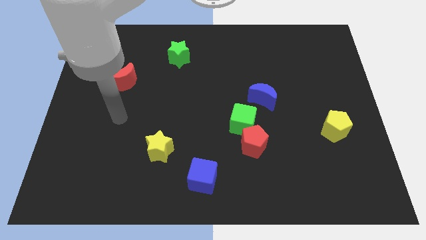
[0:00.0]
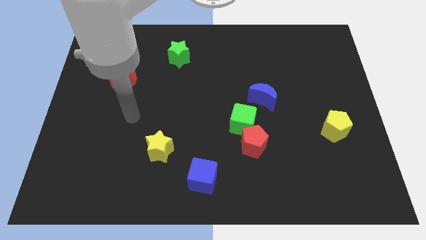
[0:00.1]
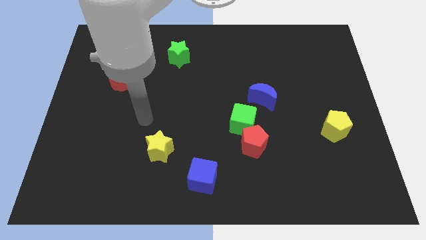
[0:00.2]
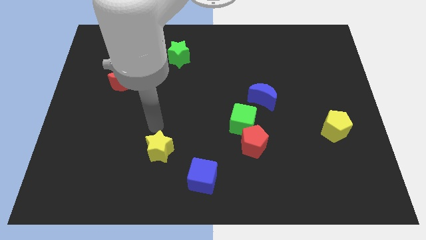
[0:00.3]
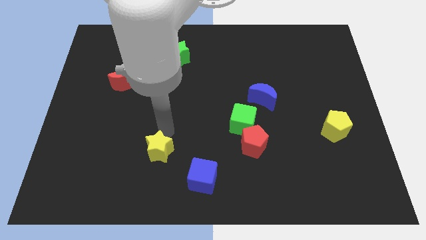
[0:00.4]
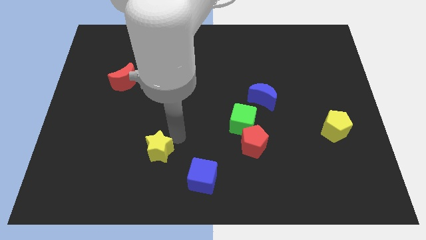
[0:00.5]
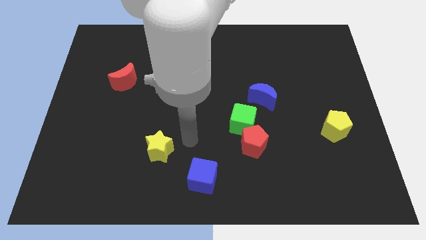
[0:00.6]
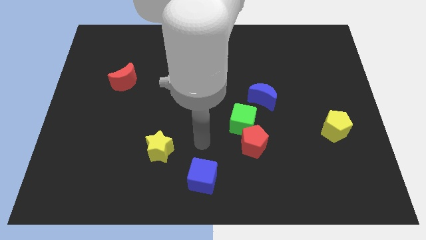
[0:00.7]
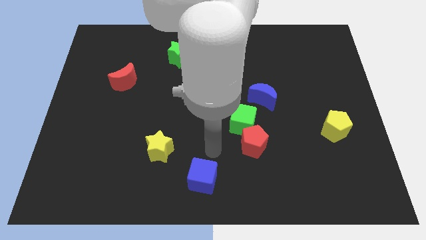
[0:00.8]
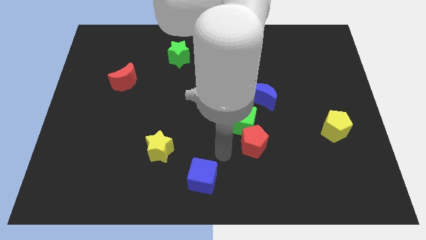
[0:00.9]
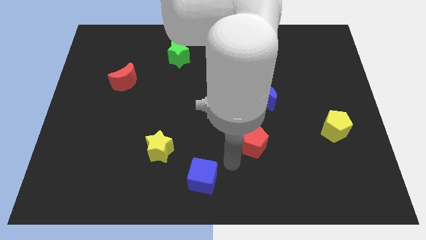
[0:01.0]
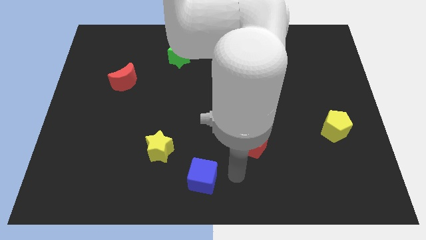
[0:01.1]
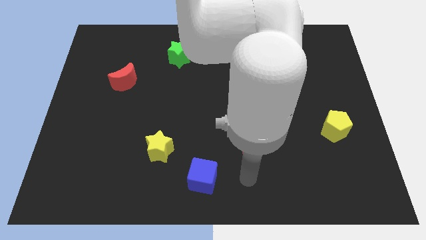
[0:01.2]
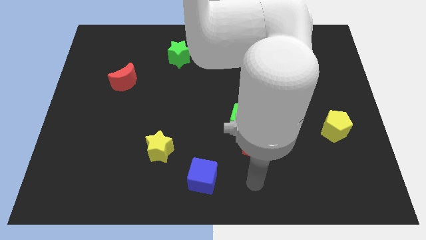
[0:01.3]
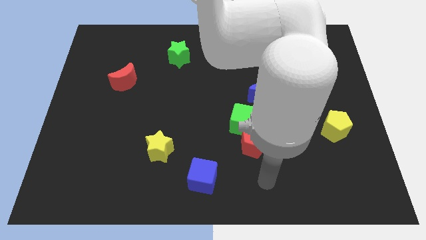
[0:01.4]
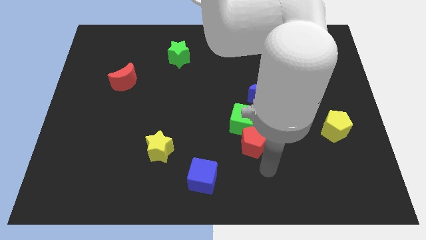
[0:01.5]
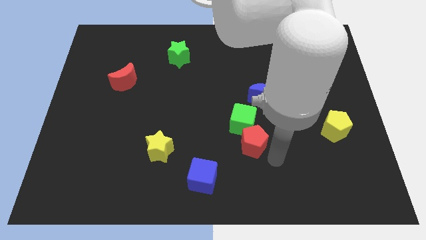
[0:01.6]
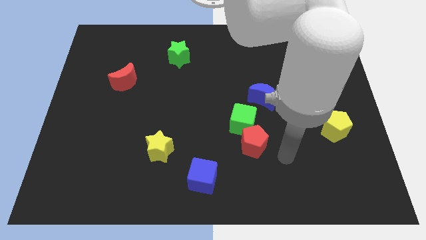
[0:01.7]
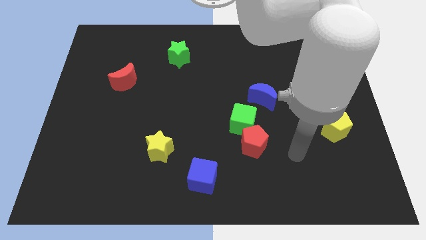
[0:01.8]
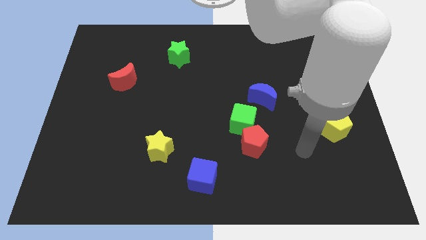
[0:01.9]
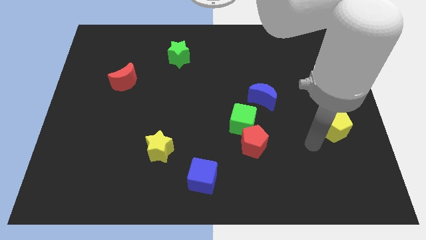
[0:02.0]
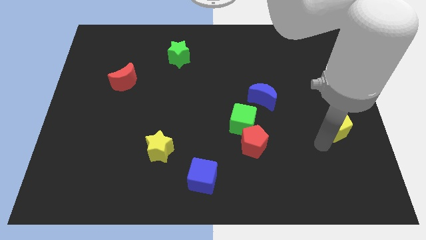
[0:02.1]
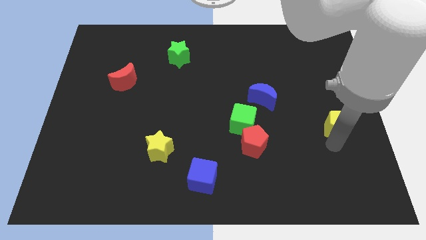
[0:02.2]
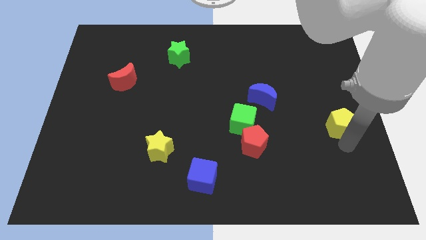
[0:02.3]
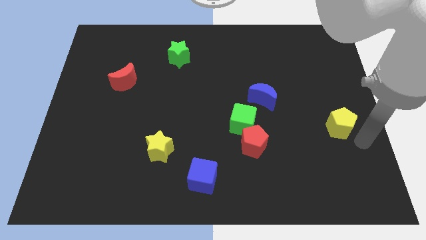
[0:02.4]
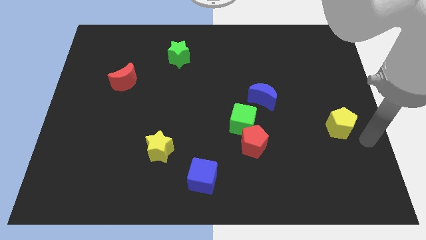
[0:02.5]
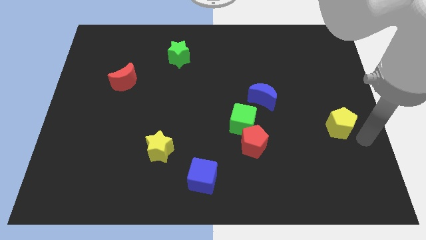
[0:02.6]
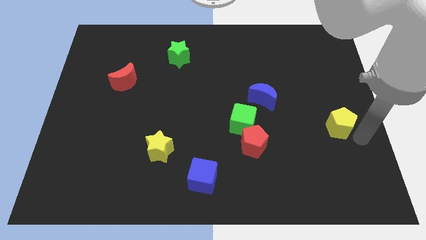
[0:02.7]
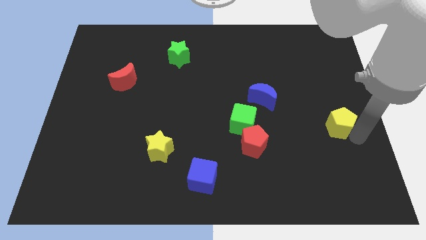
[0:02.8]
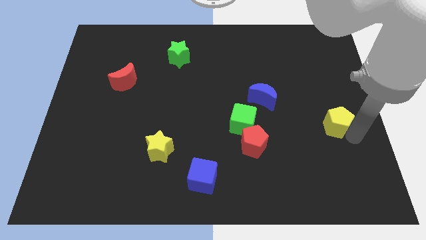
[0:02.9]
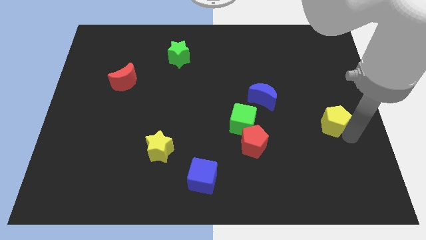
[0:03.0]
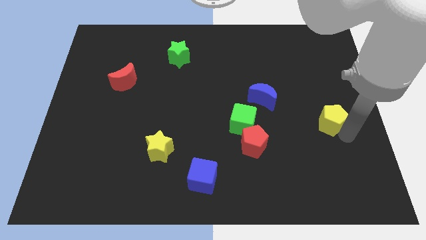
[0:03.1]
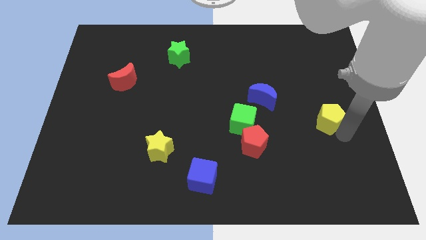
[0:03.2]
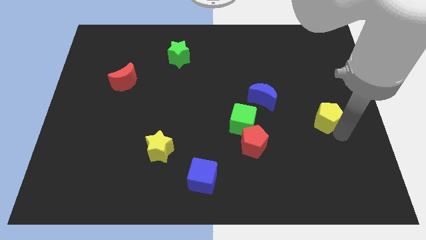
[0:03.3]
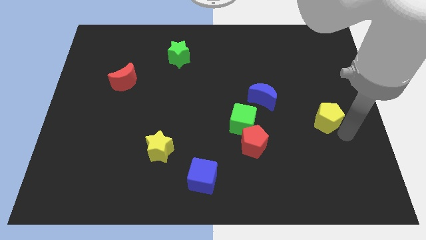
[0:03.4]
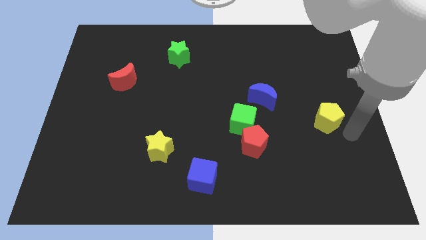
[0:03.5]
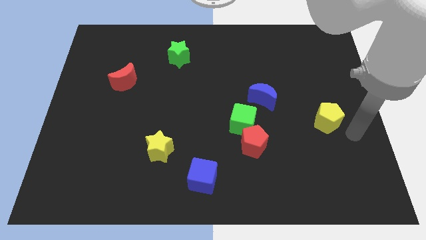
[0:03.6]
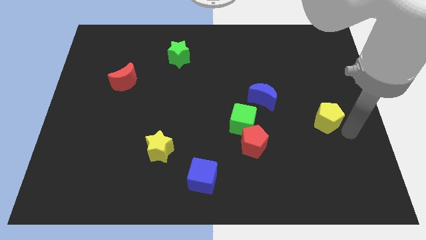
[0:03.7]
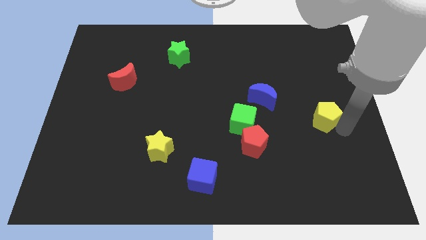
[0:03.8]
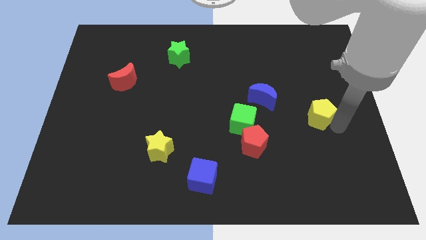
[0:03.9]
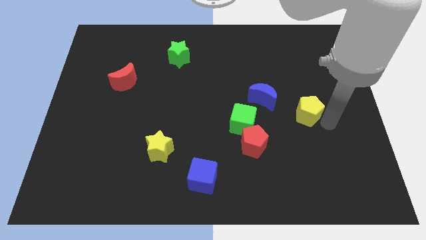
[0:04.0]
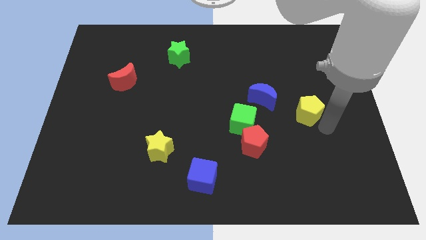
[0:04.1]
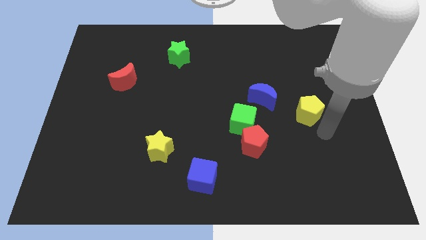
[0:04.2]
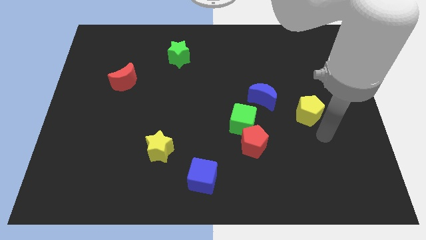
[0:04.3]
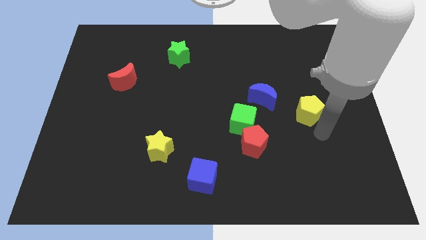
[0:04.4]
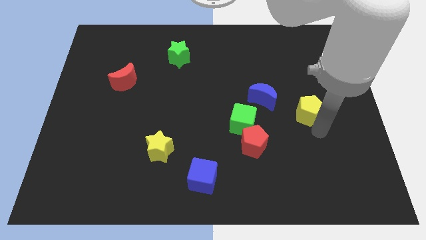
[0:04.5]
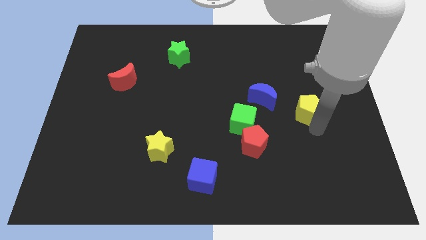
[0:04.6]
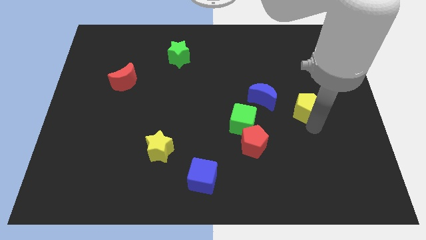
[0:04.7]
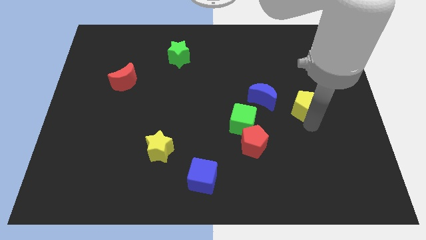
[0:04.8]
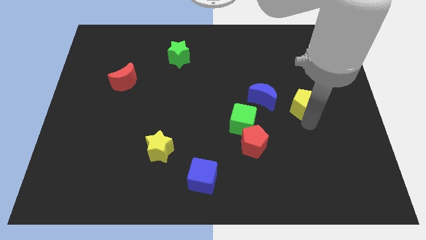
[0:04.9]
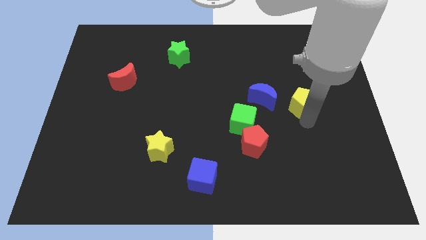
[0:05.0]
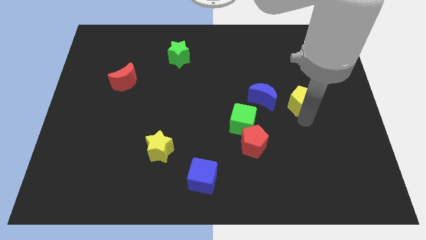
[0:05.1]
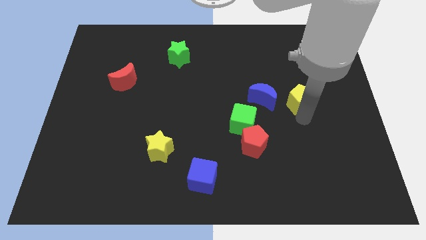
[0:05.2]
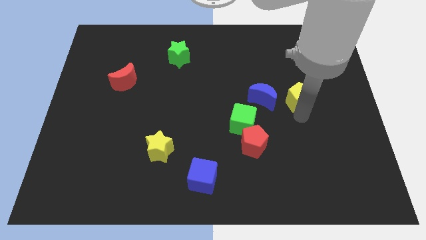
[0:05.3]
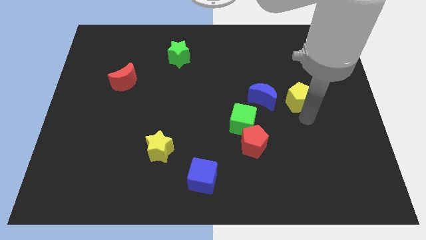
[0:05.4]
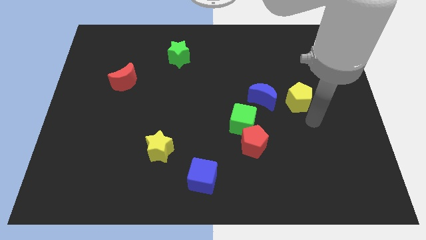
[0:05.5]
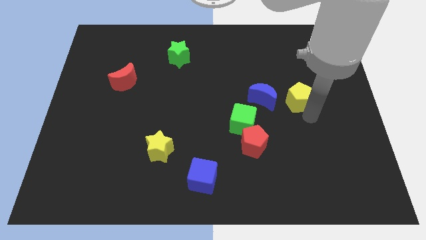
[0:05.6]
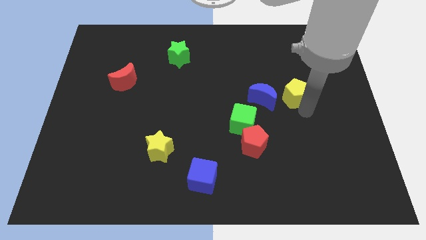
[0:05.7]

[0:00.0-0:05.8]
put the yellow pentagon diagonally up and to the right of the blue moon
